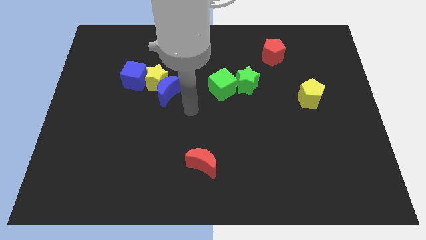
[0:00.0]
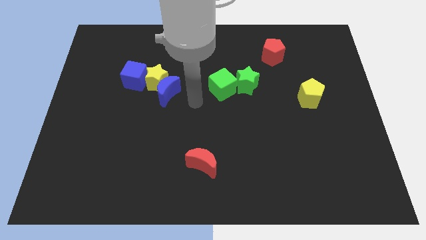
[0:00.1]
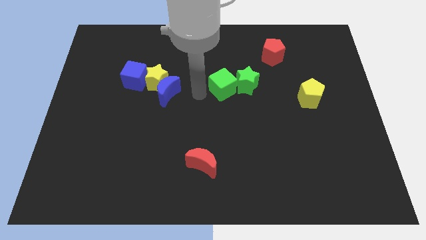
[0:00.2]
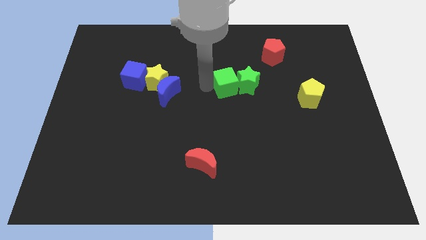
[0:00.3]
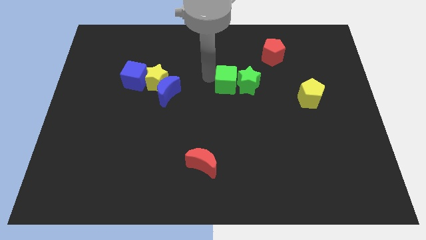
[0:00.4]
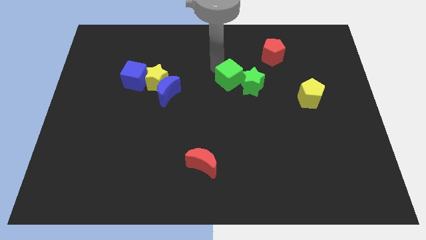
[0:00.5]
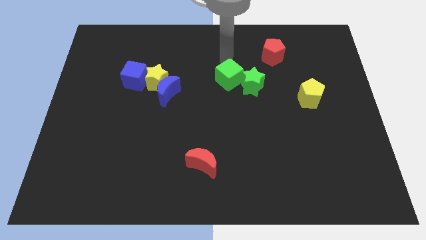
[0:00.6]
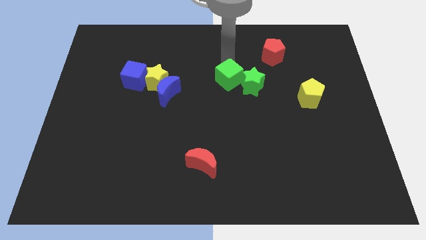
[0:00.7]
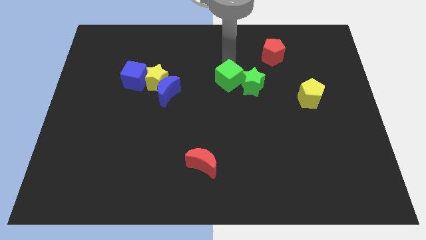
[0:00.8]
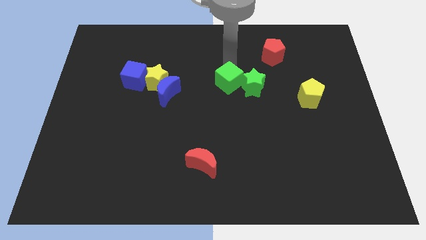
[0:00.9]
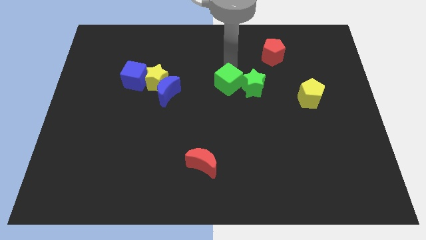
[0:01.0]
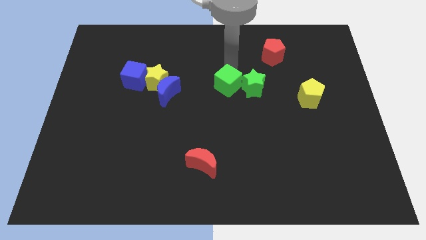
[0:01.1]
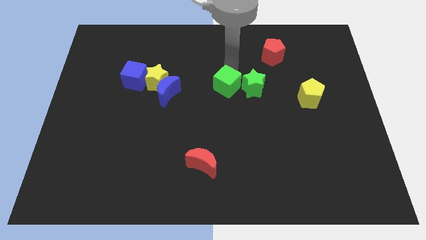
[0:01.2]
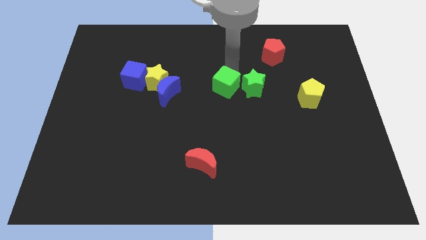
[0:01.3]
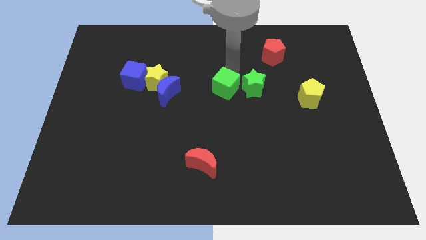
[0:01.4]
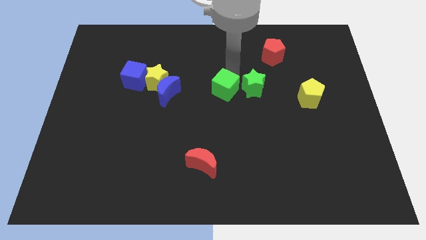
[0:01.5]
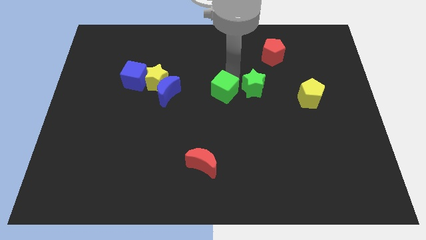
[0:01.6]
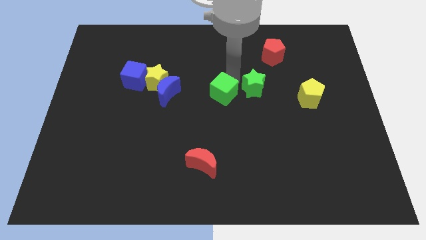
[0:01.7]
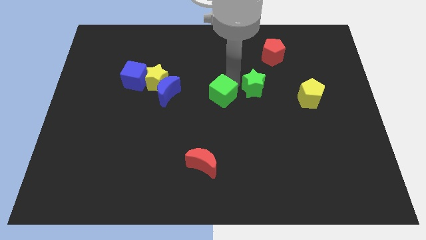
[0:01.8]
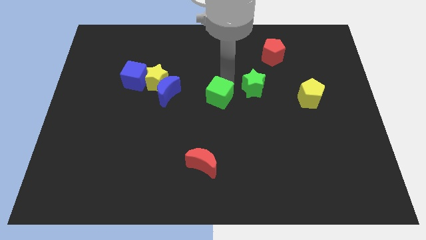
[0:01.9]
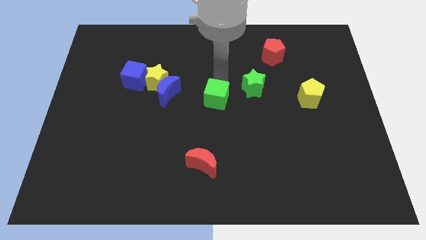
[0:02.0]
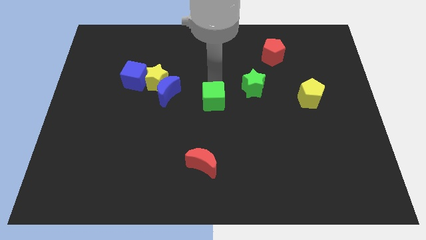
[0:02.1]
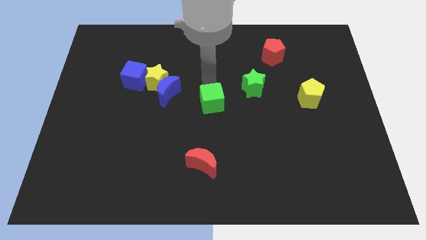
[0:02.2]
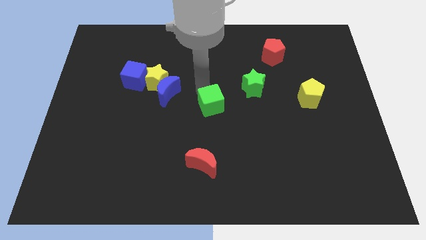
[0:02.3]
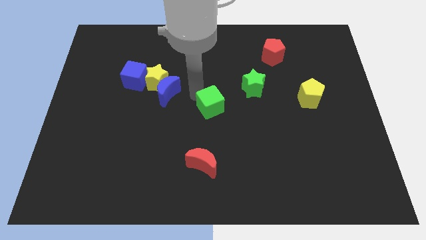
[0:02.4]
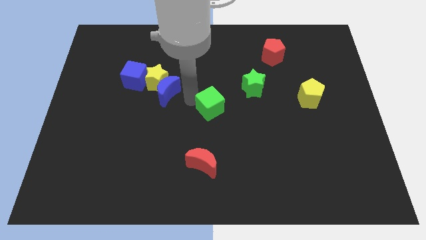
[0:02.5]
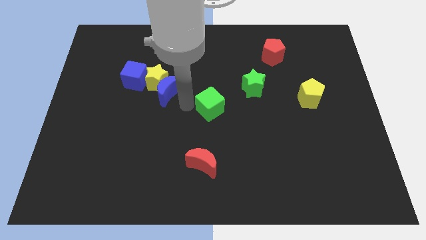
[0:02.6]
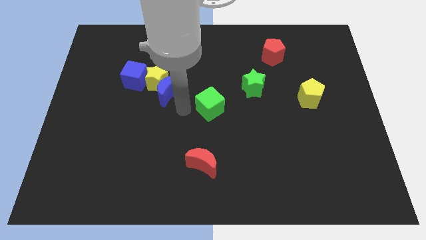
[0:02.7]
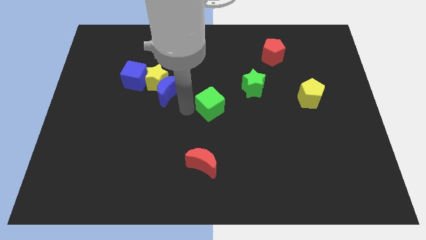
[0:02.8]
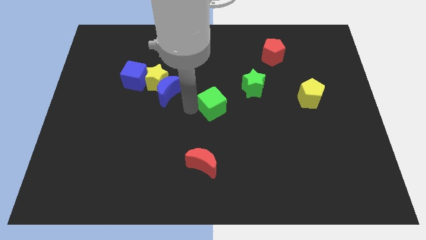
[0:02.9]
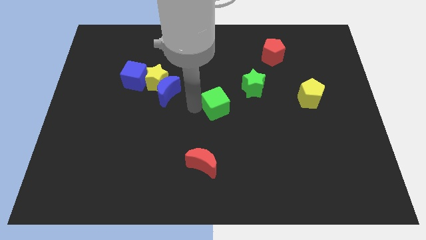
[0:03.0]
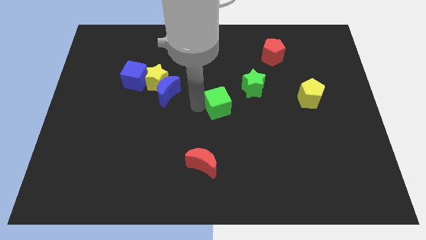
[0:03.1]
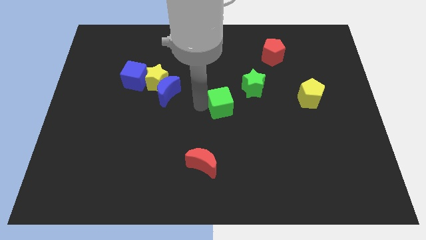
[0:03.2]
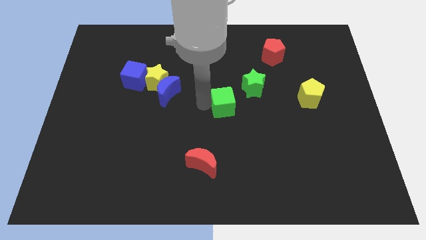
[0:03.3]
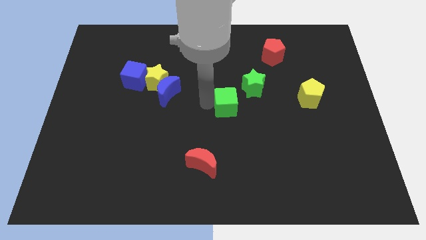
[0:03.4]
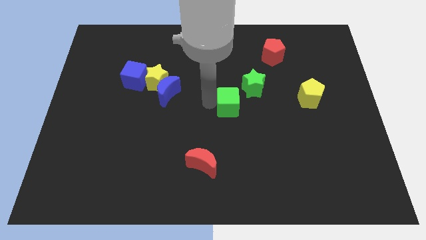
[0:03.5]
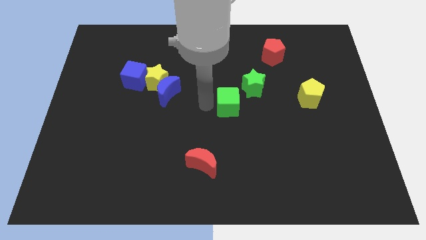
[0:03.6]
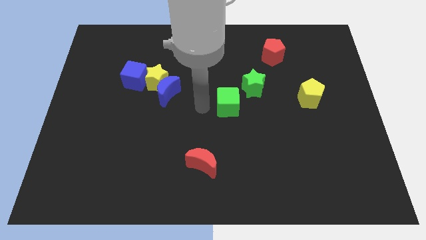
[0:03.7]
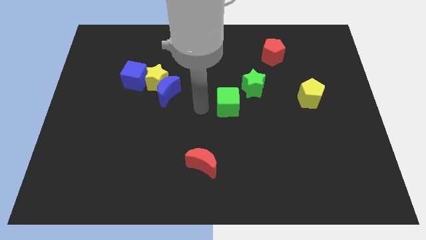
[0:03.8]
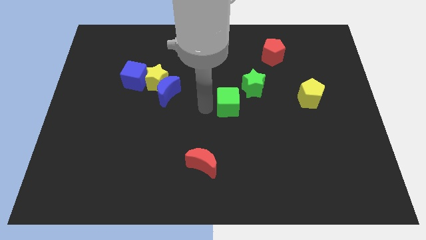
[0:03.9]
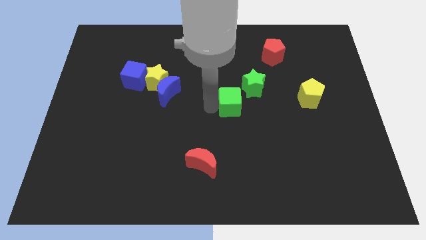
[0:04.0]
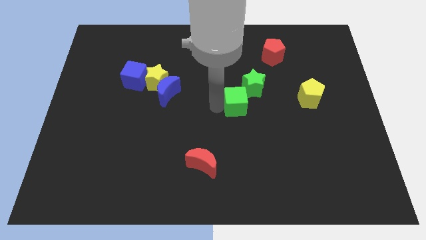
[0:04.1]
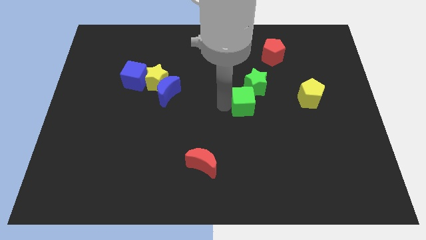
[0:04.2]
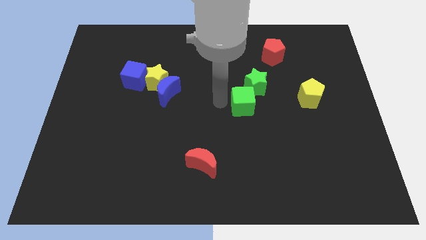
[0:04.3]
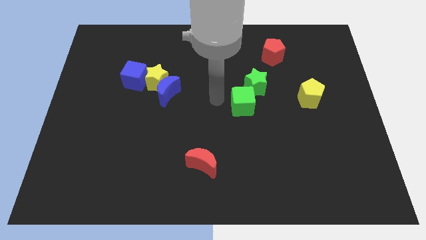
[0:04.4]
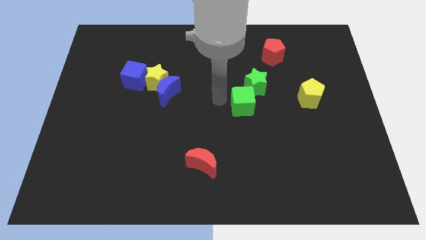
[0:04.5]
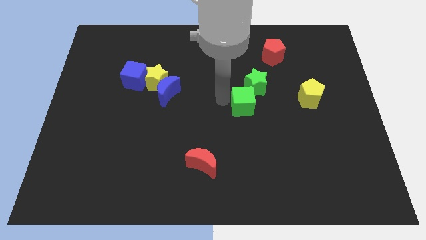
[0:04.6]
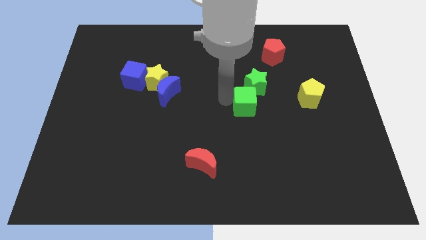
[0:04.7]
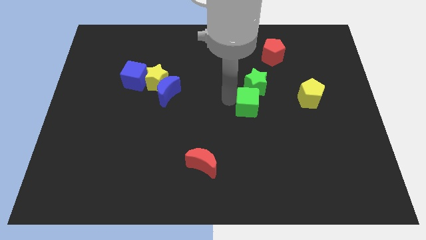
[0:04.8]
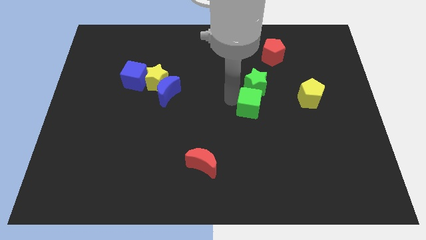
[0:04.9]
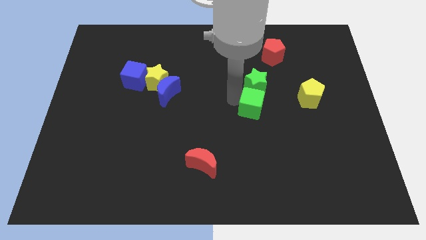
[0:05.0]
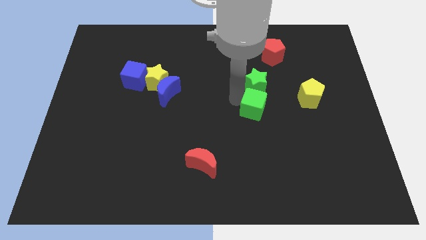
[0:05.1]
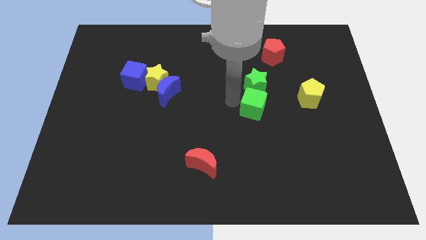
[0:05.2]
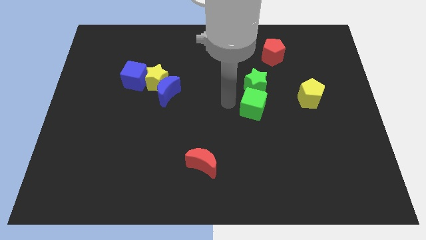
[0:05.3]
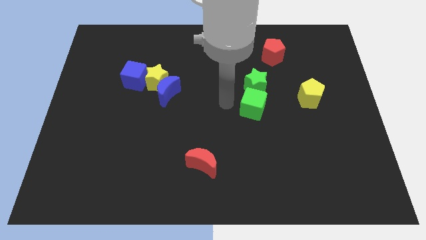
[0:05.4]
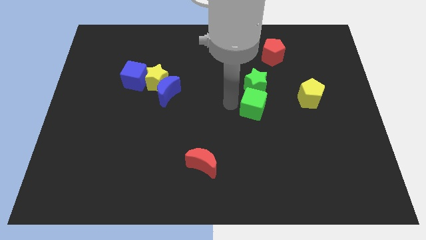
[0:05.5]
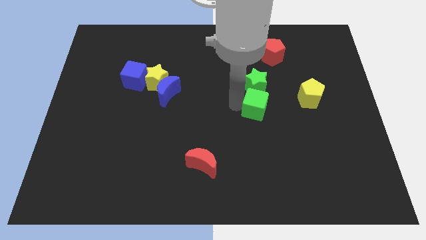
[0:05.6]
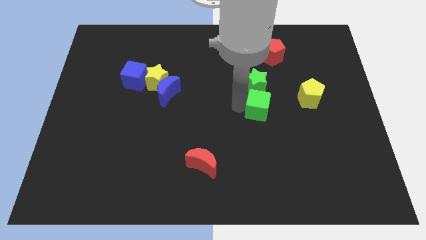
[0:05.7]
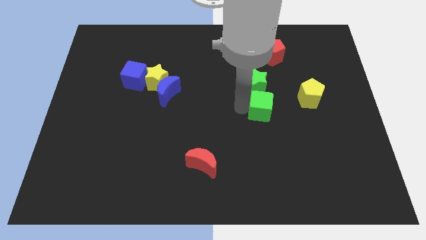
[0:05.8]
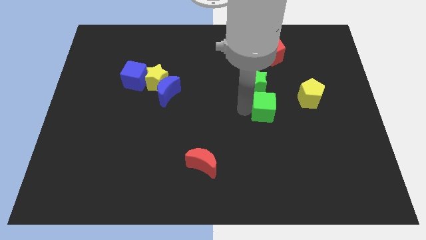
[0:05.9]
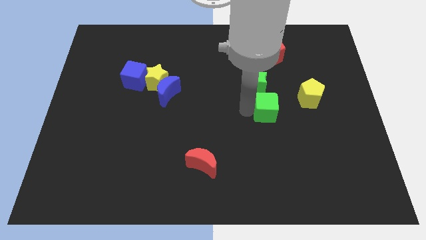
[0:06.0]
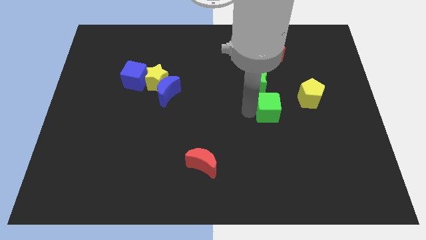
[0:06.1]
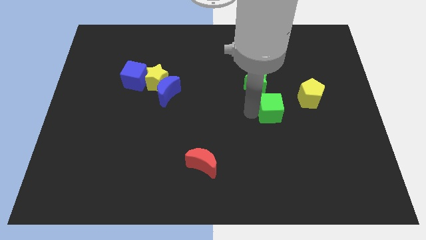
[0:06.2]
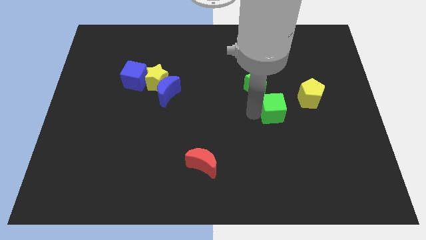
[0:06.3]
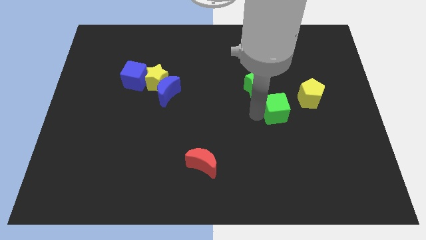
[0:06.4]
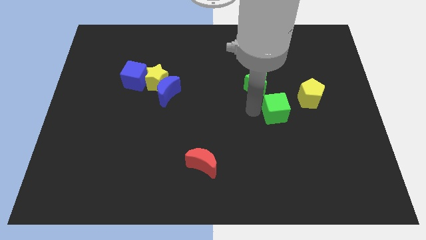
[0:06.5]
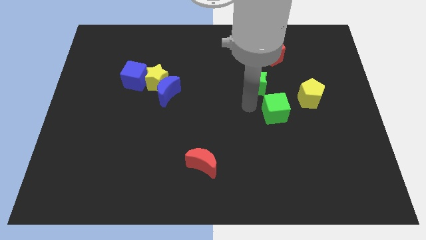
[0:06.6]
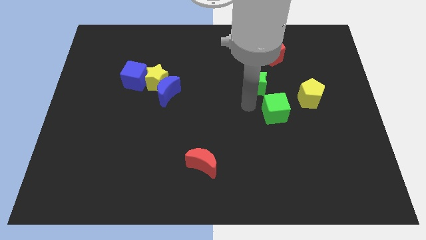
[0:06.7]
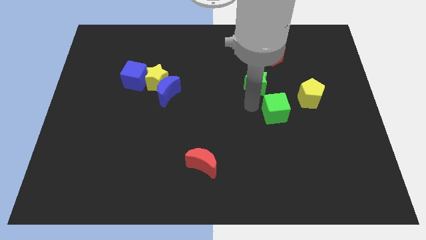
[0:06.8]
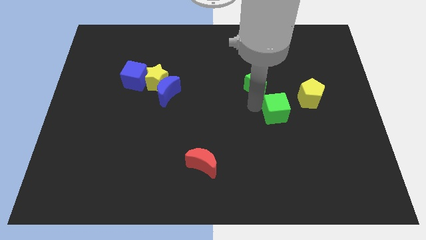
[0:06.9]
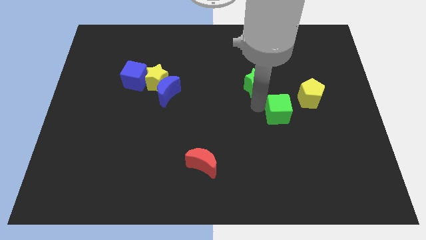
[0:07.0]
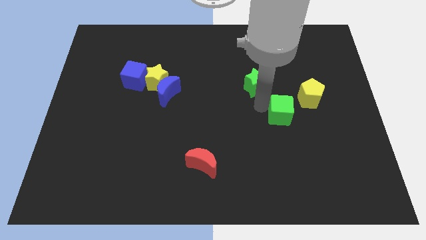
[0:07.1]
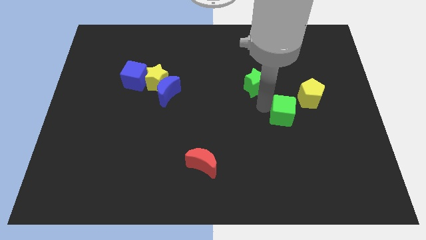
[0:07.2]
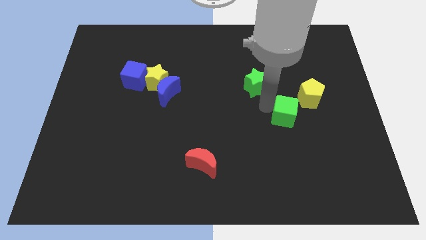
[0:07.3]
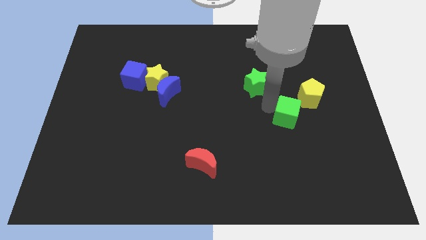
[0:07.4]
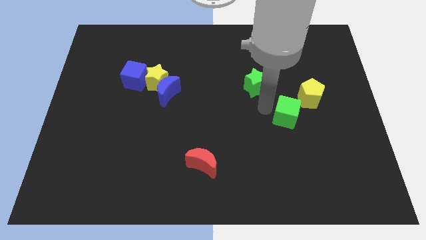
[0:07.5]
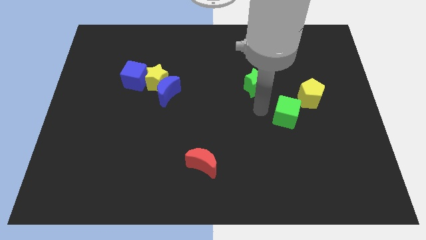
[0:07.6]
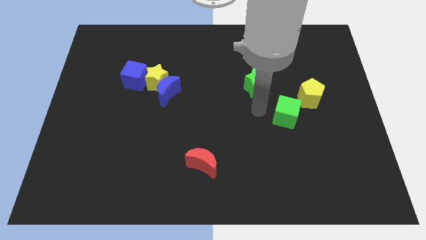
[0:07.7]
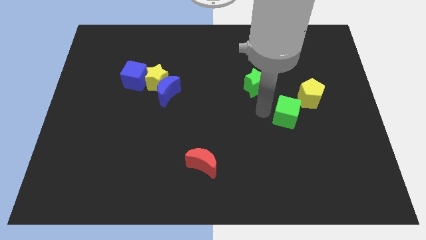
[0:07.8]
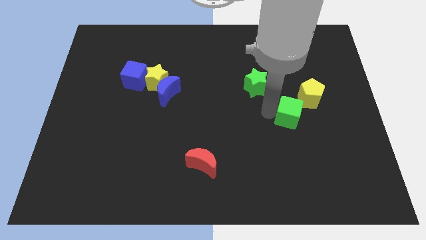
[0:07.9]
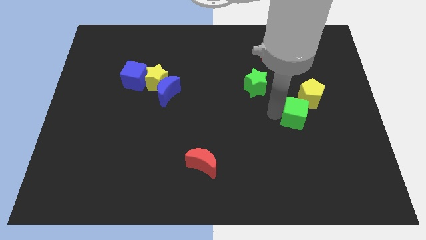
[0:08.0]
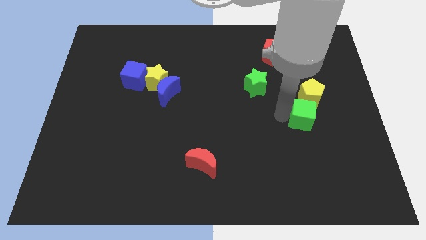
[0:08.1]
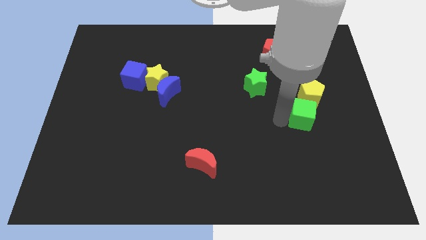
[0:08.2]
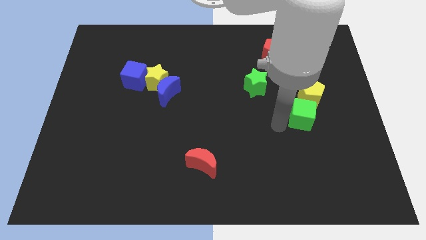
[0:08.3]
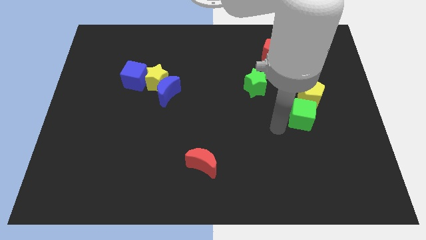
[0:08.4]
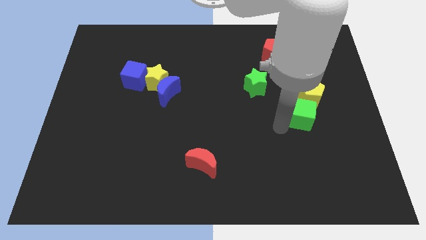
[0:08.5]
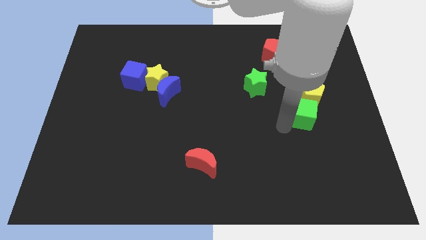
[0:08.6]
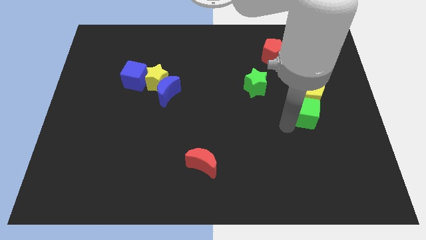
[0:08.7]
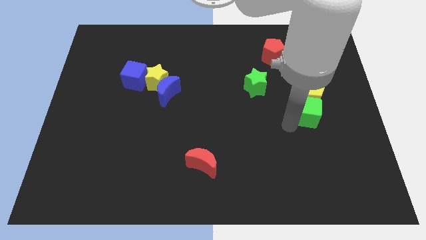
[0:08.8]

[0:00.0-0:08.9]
move the green cube to the bottom right of the yellow pentagon
